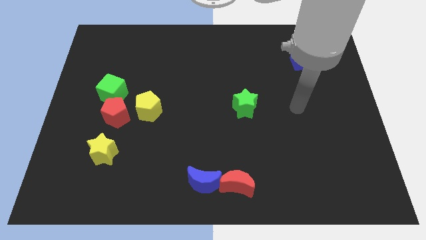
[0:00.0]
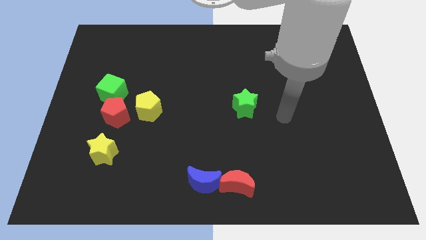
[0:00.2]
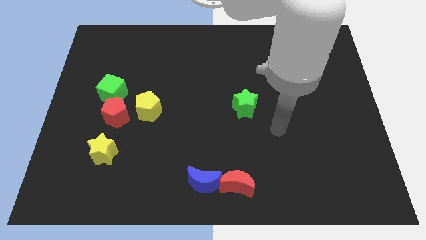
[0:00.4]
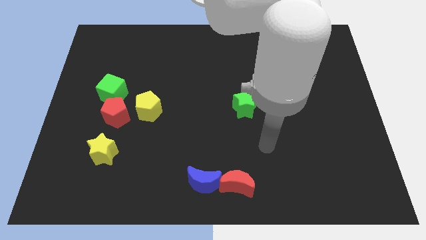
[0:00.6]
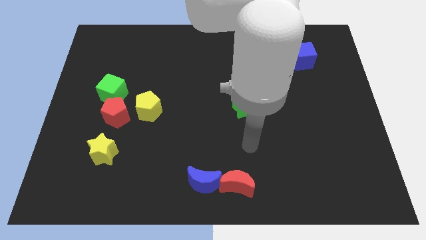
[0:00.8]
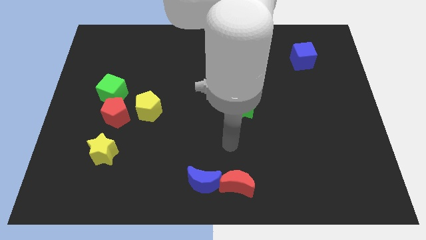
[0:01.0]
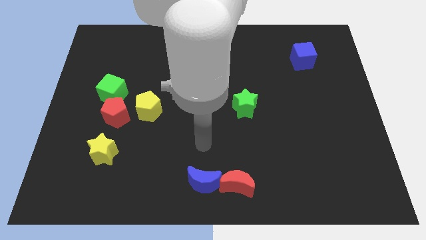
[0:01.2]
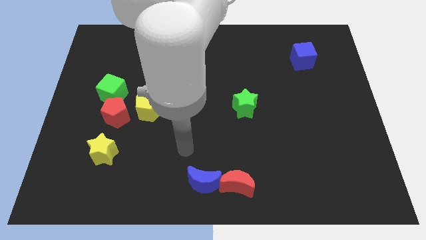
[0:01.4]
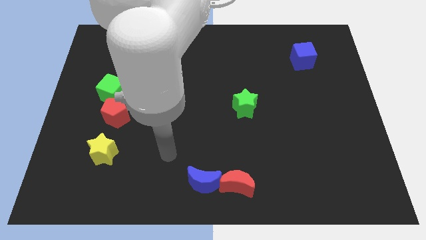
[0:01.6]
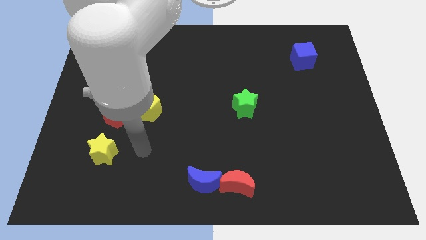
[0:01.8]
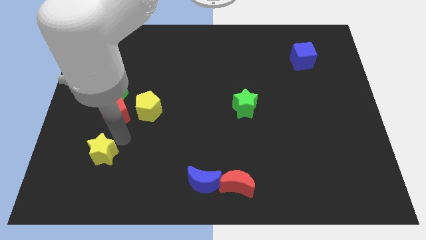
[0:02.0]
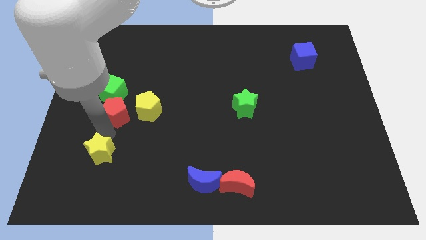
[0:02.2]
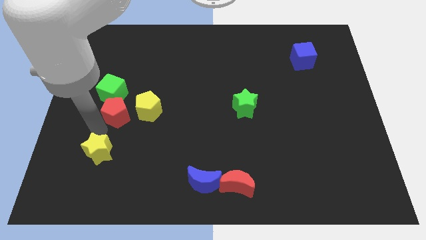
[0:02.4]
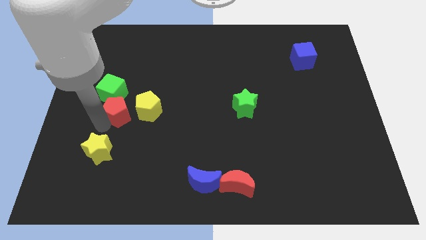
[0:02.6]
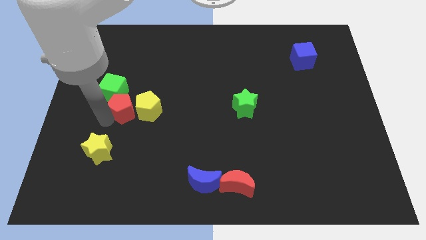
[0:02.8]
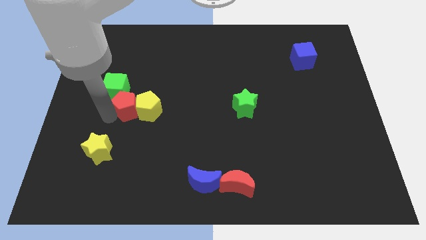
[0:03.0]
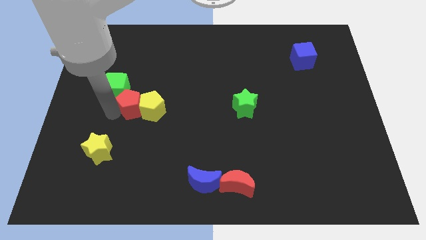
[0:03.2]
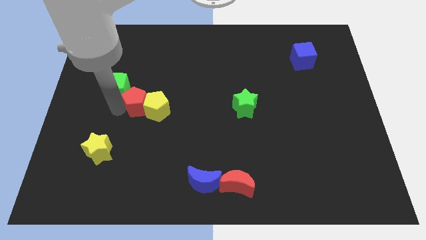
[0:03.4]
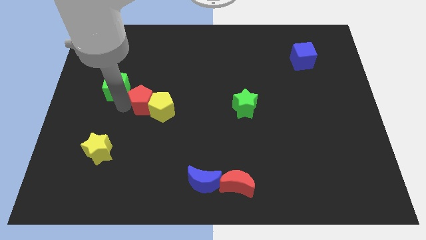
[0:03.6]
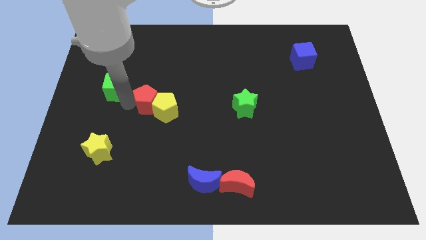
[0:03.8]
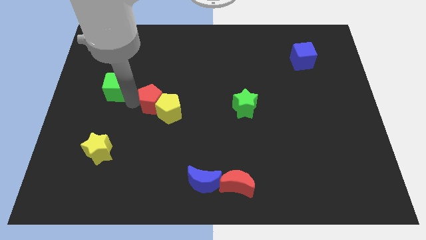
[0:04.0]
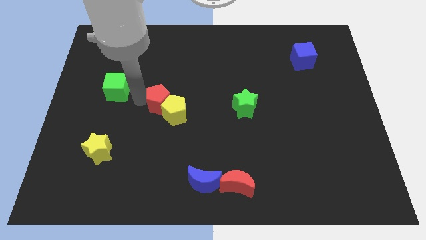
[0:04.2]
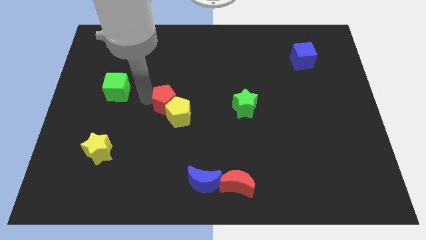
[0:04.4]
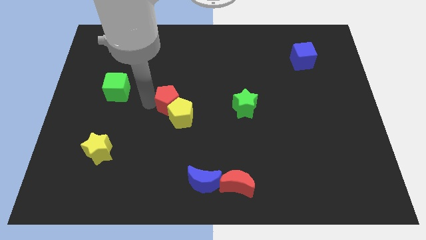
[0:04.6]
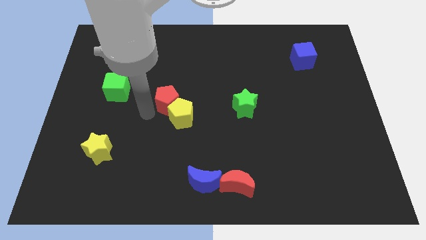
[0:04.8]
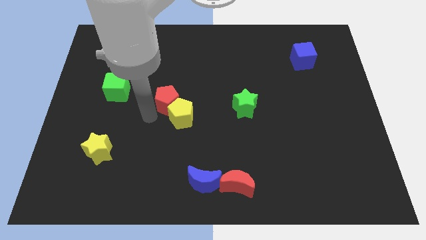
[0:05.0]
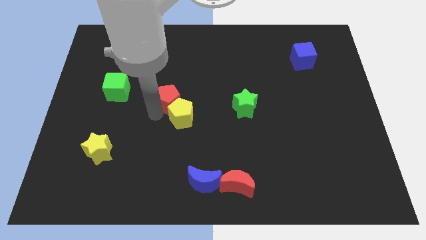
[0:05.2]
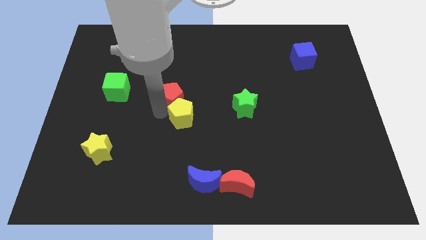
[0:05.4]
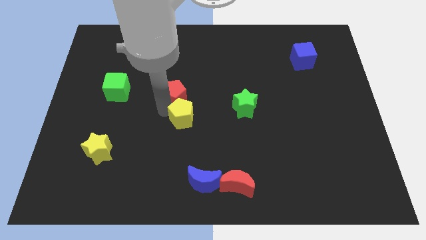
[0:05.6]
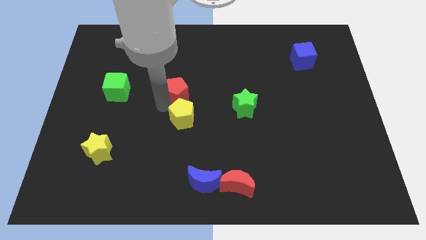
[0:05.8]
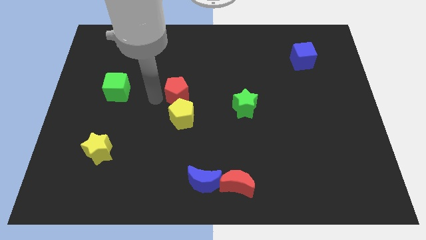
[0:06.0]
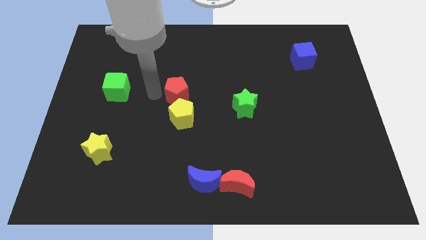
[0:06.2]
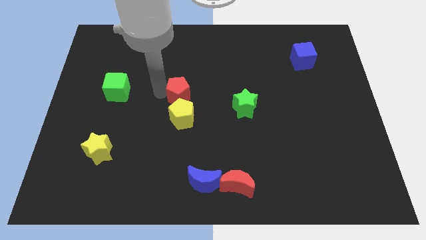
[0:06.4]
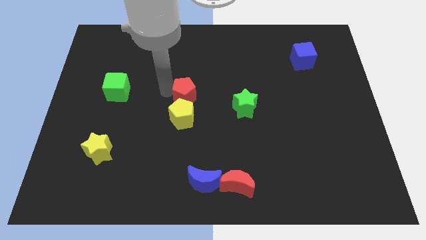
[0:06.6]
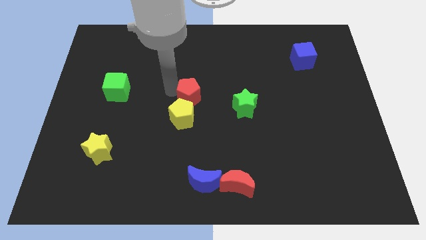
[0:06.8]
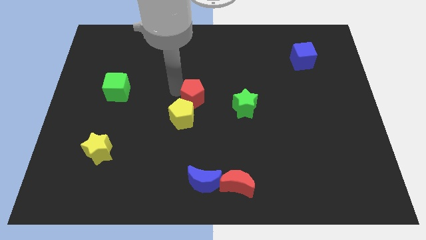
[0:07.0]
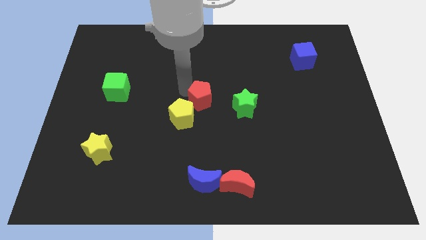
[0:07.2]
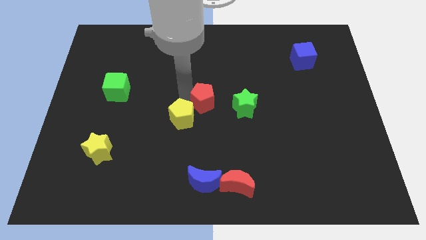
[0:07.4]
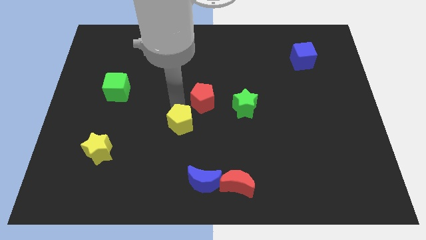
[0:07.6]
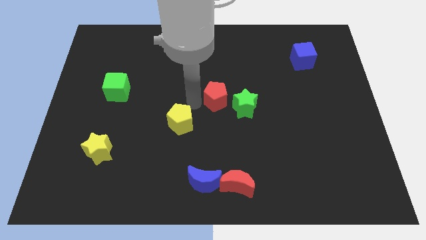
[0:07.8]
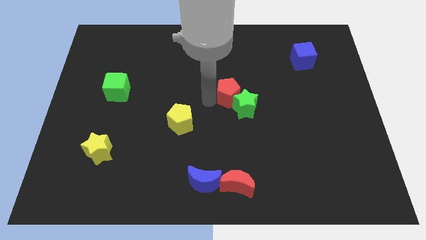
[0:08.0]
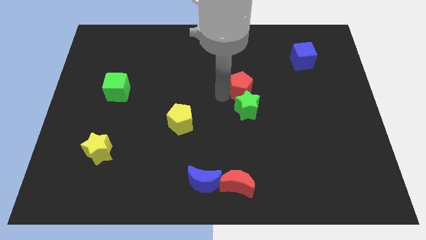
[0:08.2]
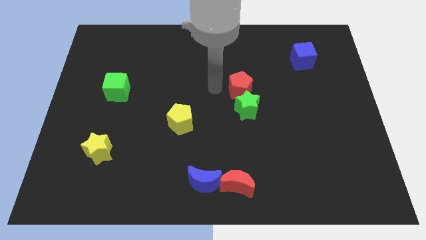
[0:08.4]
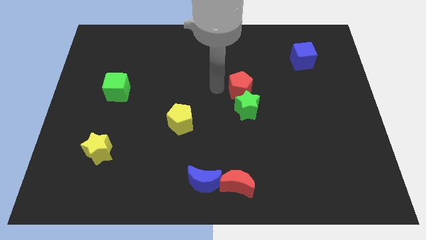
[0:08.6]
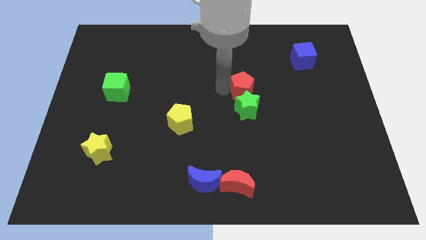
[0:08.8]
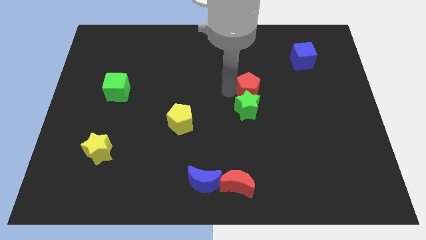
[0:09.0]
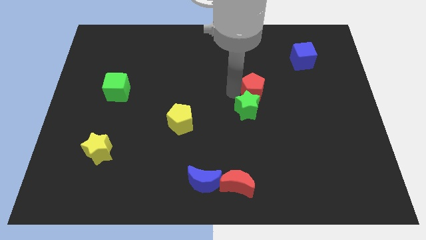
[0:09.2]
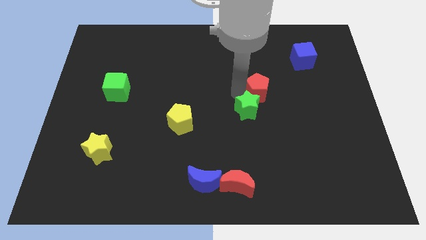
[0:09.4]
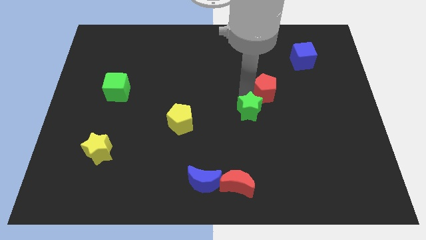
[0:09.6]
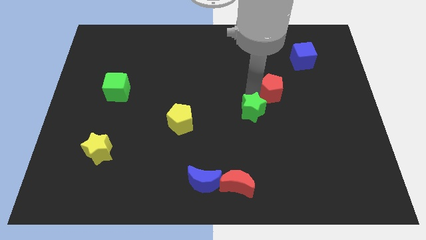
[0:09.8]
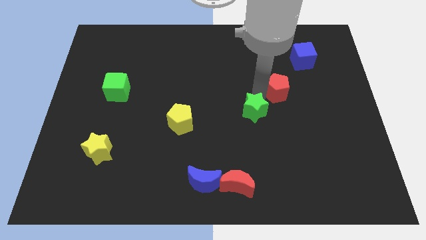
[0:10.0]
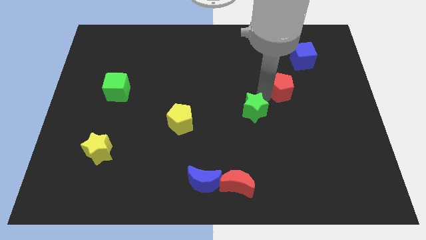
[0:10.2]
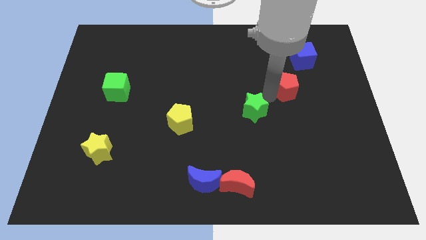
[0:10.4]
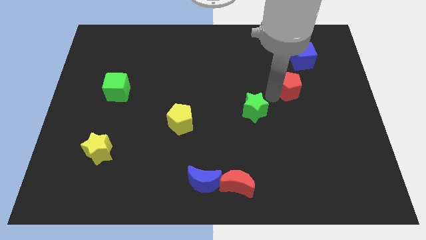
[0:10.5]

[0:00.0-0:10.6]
slide the red pentagon below the blue cube
